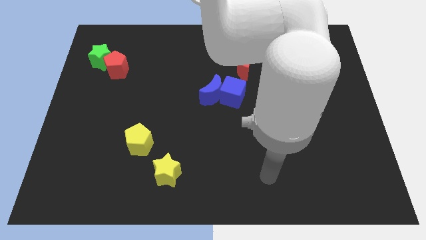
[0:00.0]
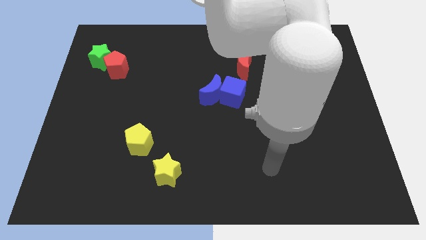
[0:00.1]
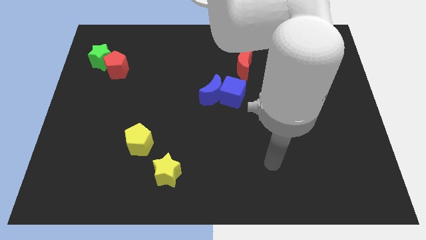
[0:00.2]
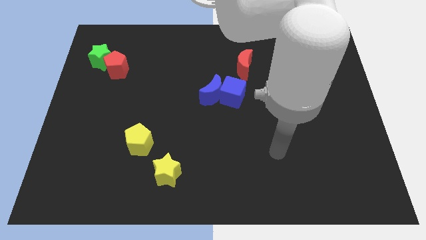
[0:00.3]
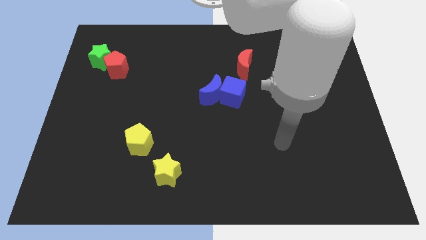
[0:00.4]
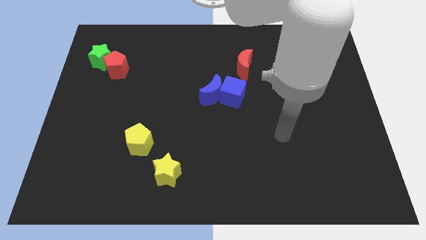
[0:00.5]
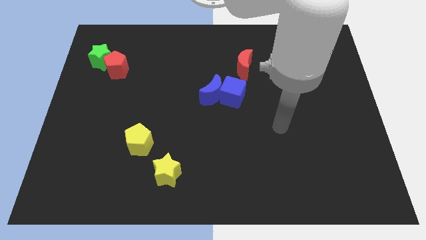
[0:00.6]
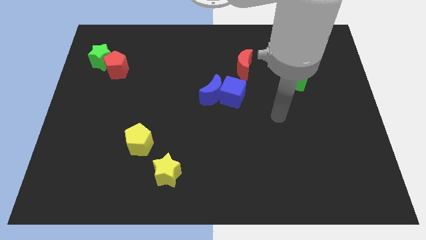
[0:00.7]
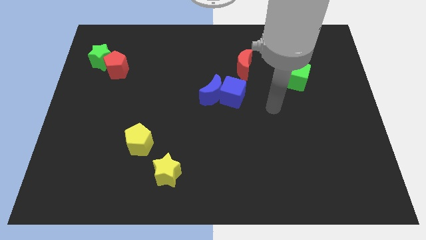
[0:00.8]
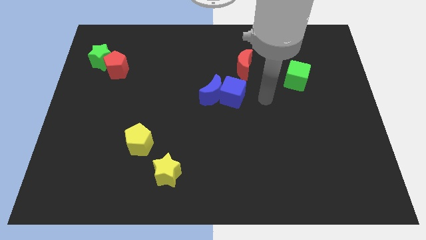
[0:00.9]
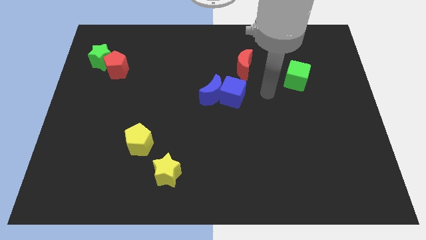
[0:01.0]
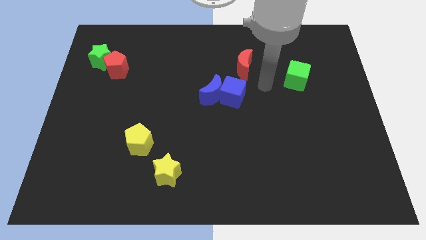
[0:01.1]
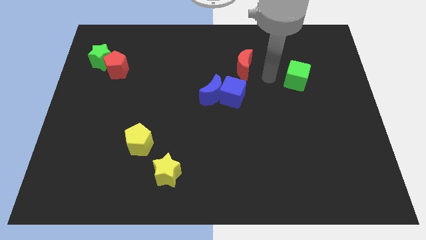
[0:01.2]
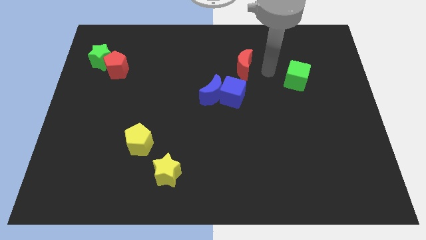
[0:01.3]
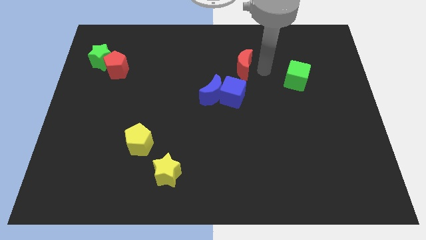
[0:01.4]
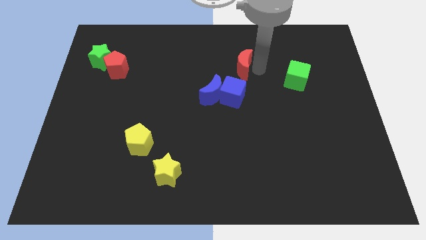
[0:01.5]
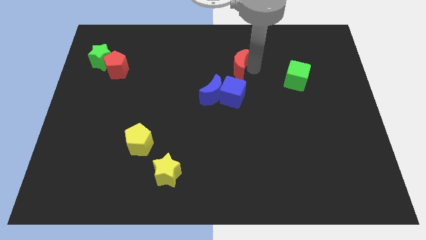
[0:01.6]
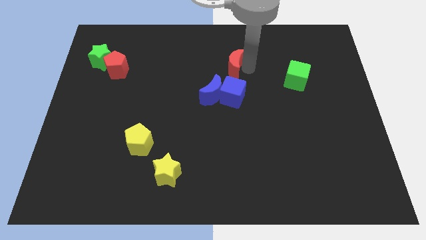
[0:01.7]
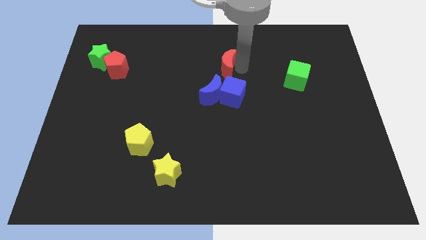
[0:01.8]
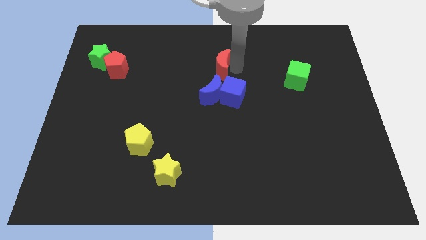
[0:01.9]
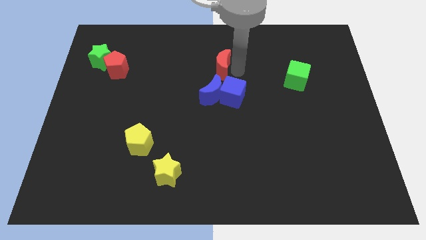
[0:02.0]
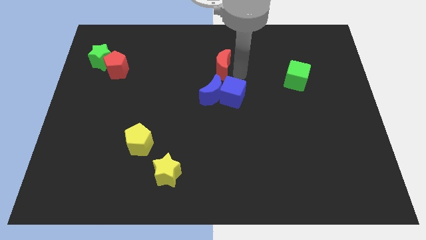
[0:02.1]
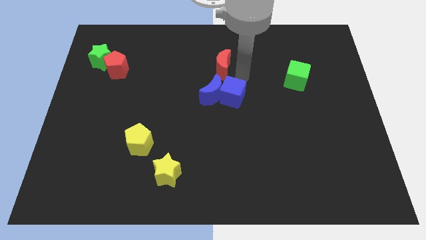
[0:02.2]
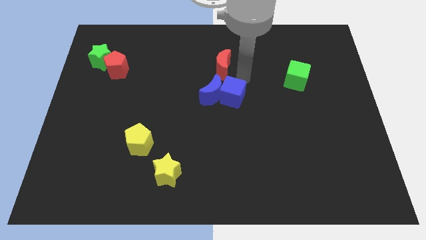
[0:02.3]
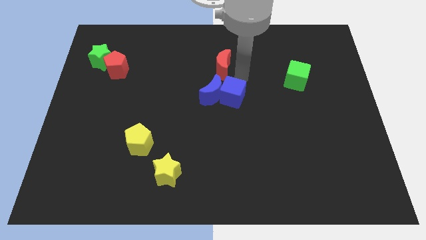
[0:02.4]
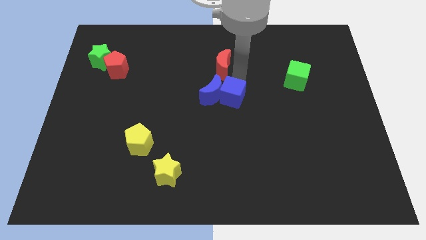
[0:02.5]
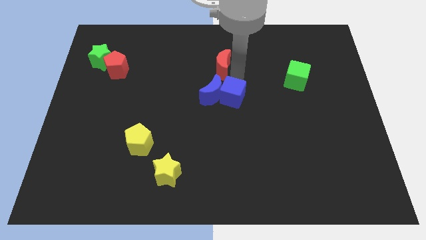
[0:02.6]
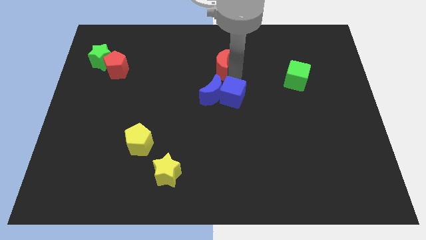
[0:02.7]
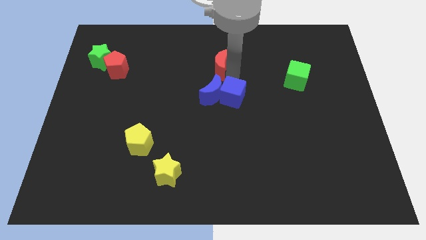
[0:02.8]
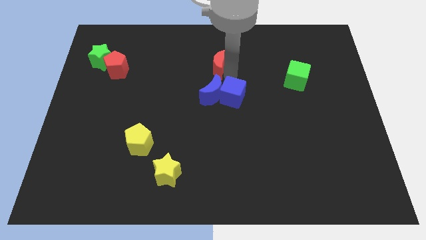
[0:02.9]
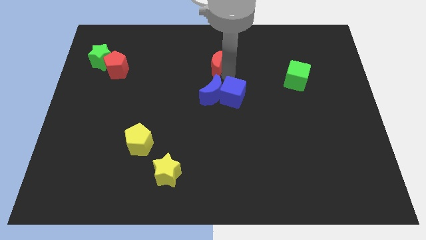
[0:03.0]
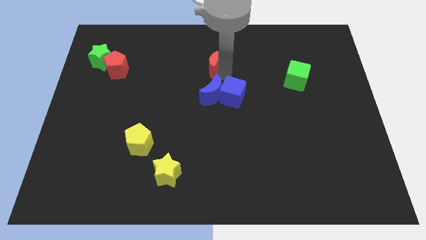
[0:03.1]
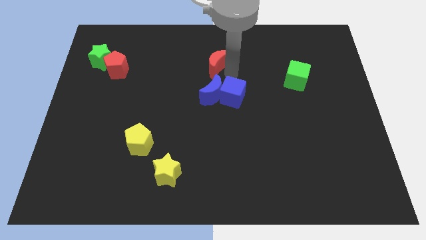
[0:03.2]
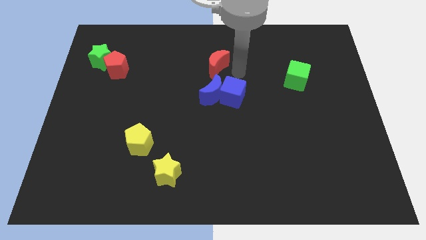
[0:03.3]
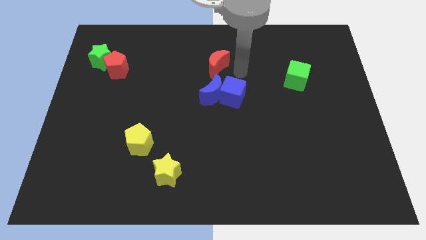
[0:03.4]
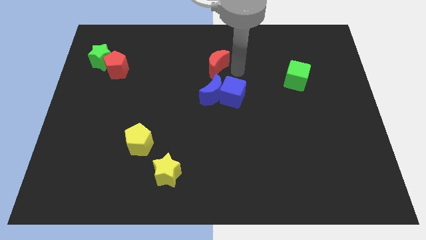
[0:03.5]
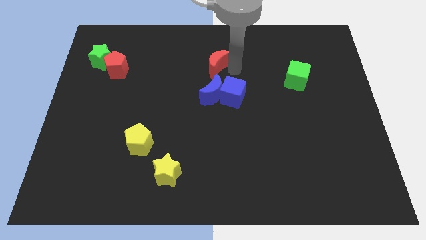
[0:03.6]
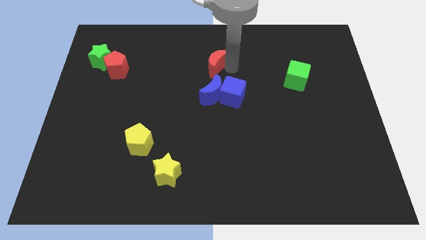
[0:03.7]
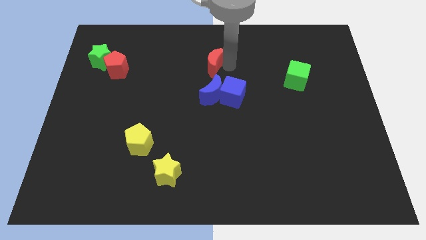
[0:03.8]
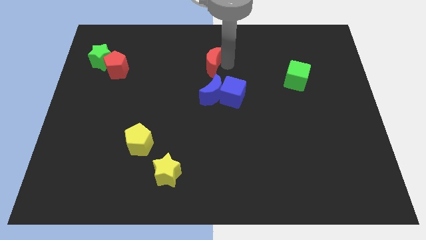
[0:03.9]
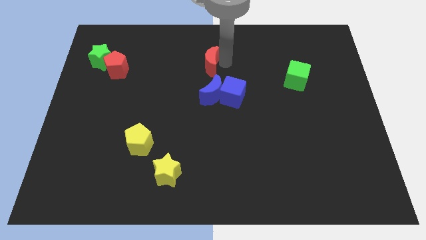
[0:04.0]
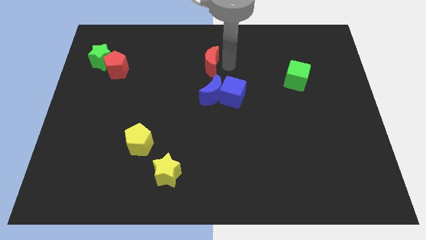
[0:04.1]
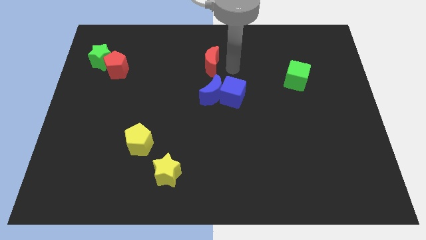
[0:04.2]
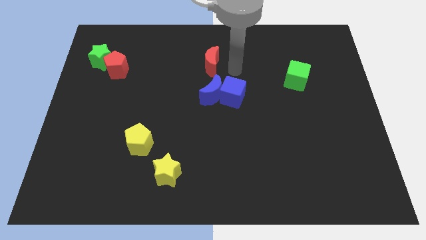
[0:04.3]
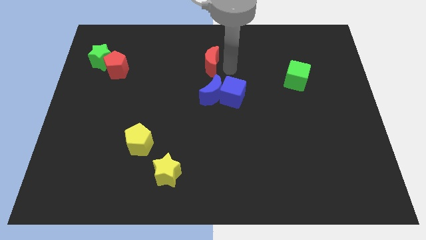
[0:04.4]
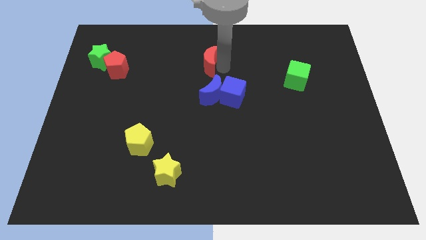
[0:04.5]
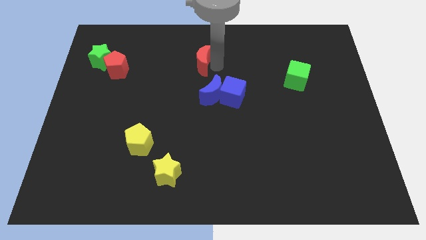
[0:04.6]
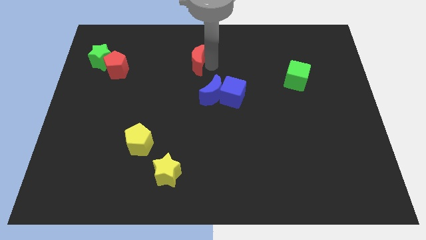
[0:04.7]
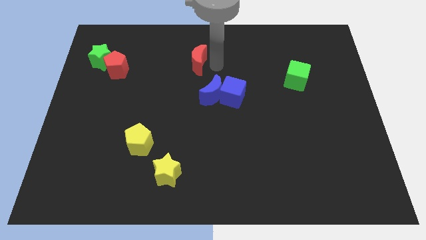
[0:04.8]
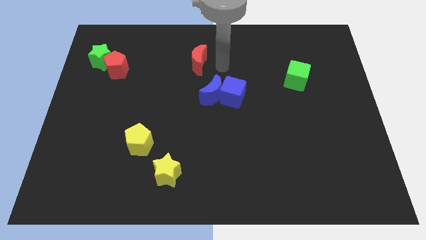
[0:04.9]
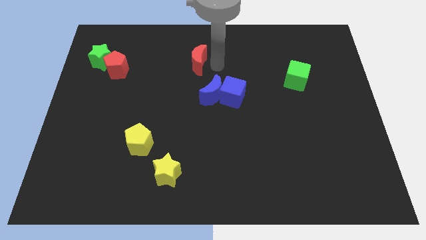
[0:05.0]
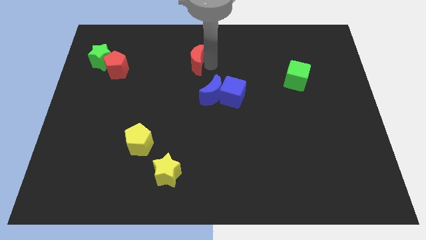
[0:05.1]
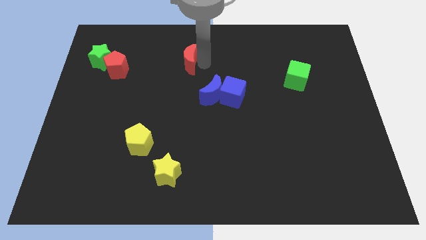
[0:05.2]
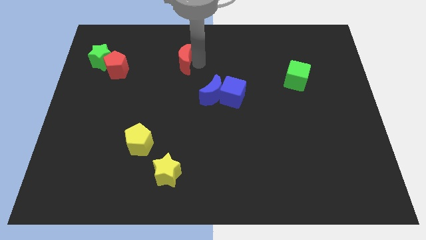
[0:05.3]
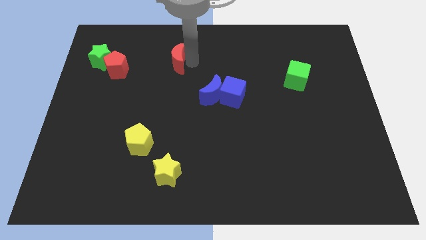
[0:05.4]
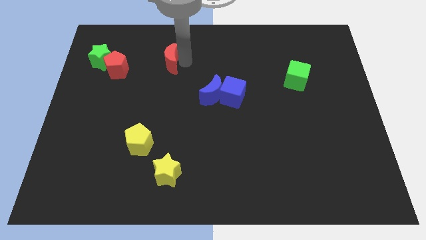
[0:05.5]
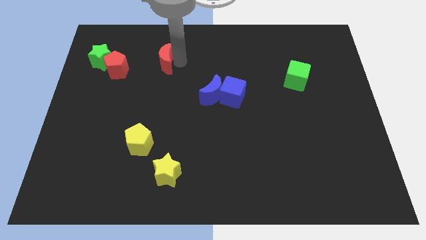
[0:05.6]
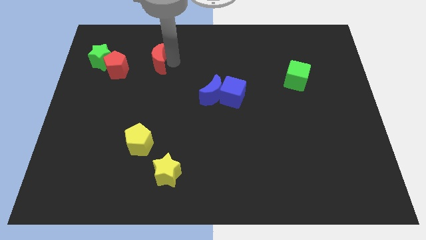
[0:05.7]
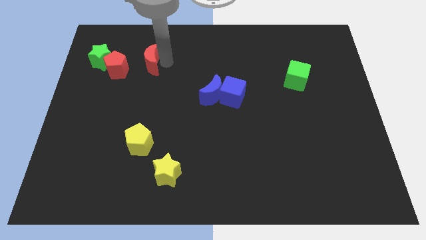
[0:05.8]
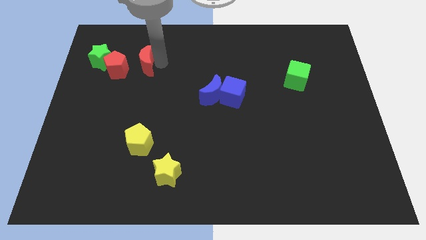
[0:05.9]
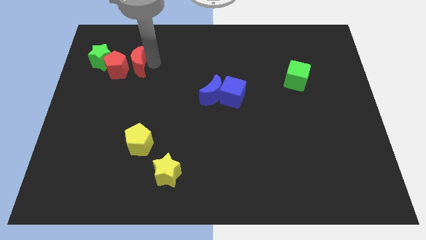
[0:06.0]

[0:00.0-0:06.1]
push the red moon close to the red pentagon
